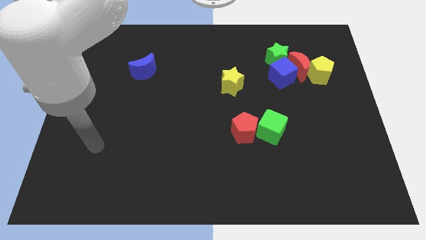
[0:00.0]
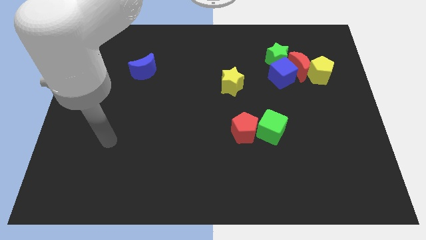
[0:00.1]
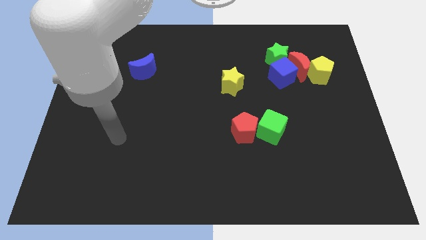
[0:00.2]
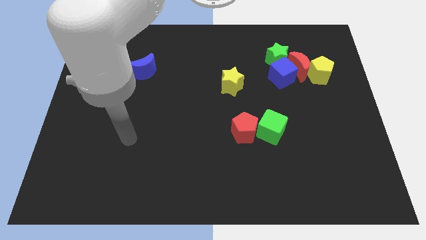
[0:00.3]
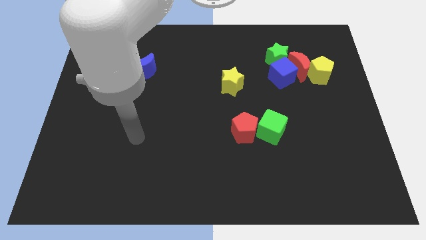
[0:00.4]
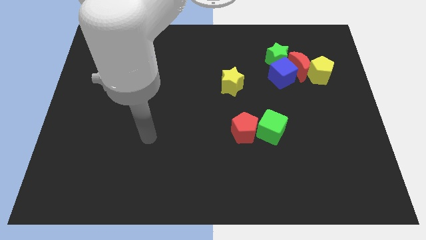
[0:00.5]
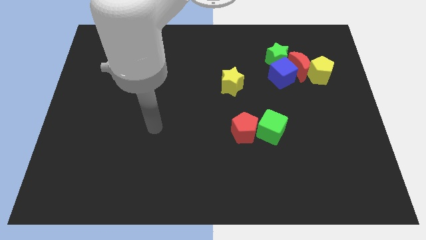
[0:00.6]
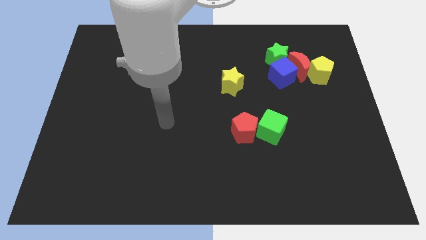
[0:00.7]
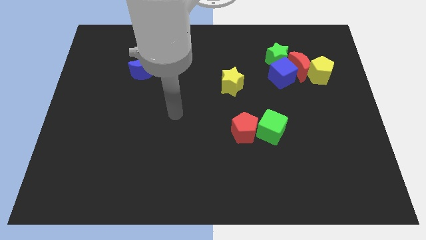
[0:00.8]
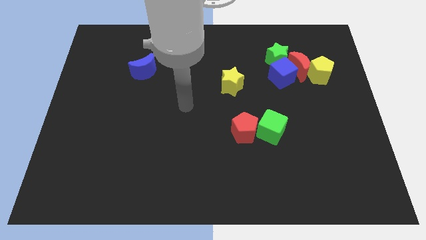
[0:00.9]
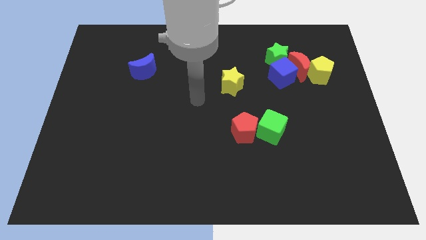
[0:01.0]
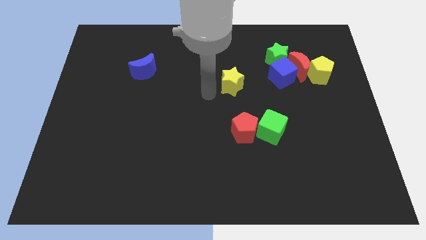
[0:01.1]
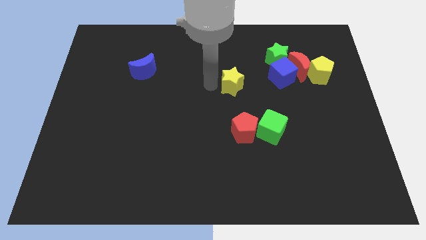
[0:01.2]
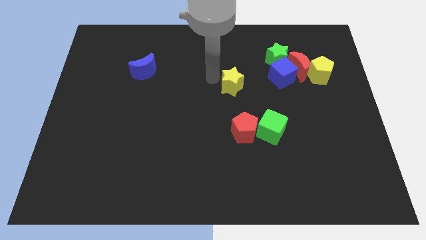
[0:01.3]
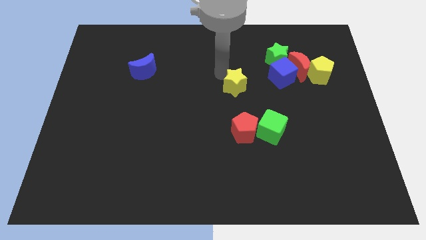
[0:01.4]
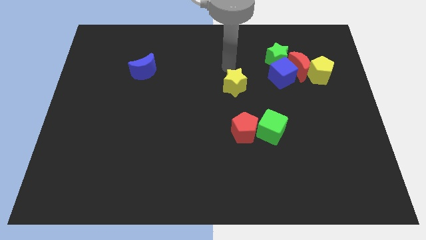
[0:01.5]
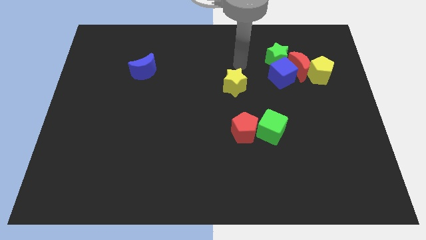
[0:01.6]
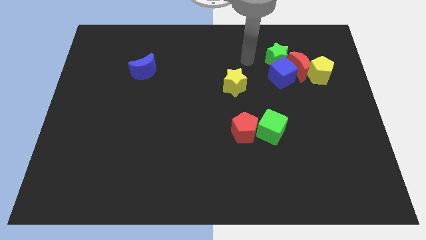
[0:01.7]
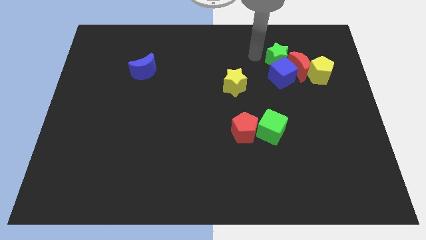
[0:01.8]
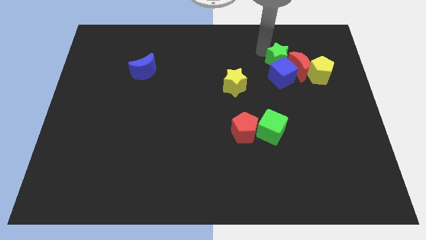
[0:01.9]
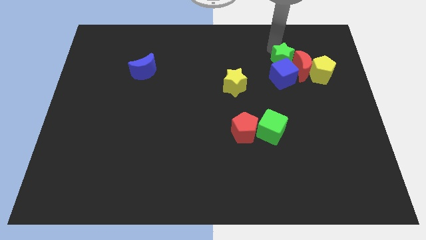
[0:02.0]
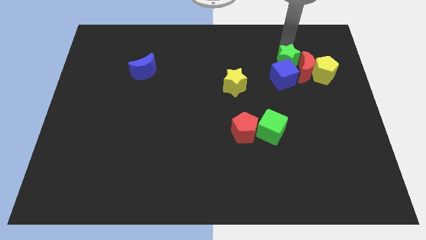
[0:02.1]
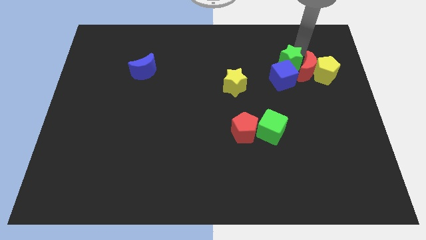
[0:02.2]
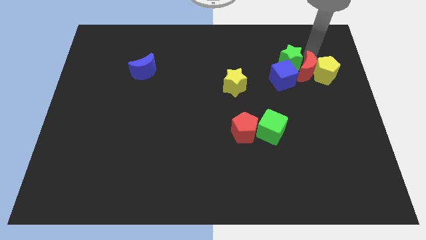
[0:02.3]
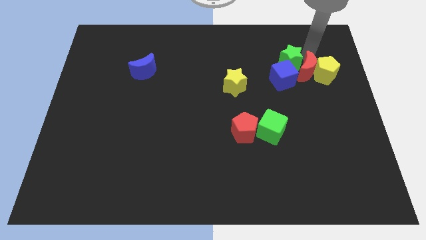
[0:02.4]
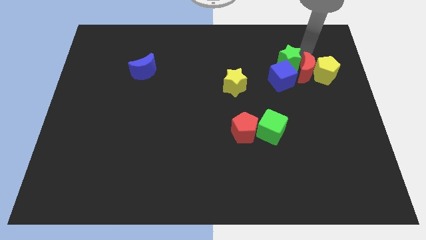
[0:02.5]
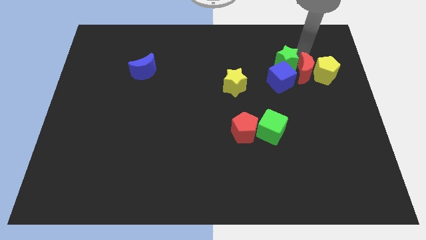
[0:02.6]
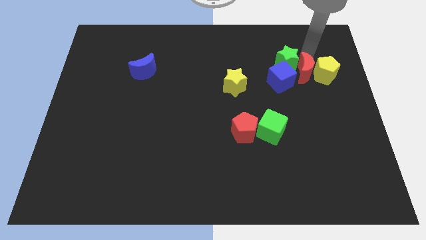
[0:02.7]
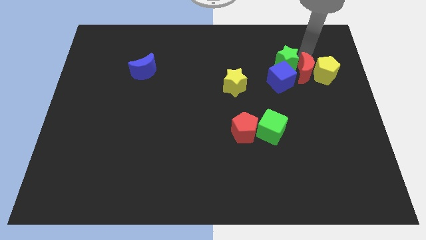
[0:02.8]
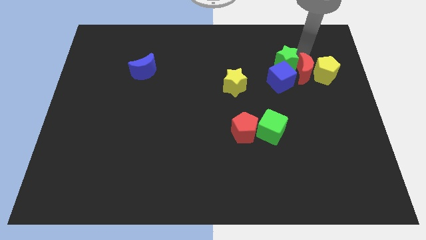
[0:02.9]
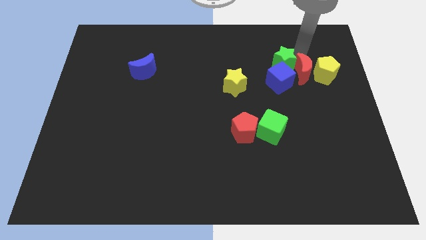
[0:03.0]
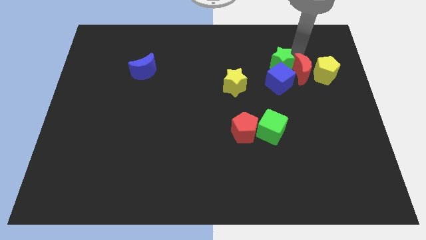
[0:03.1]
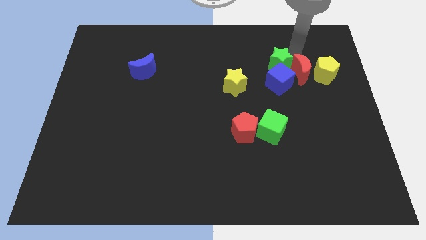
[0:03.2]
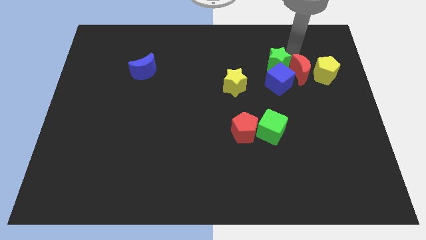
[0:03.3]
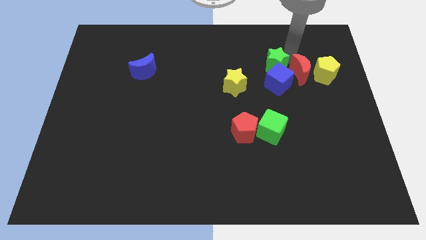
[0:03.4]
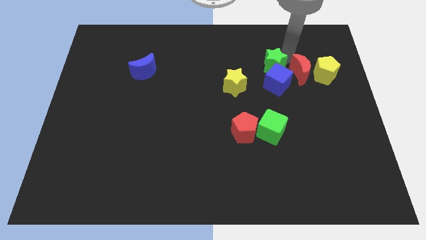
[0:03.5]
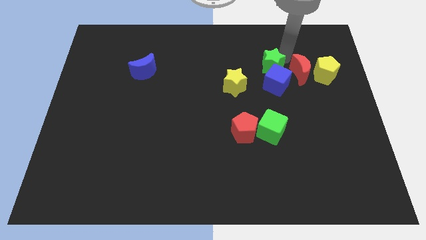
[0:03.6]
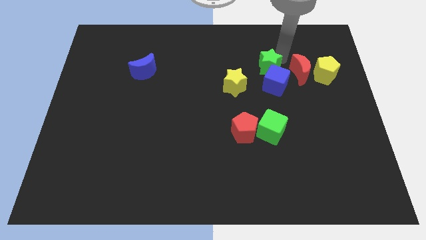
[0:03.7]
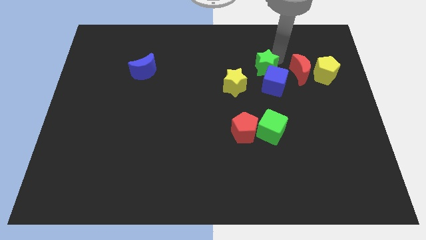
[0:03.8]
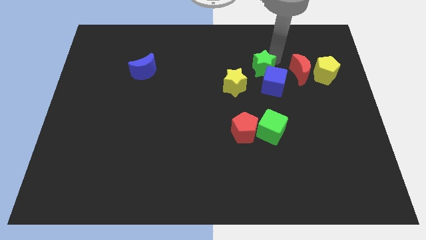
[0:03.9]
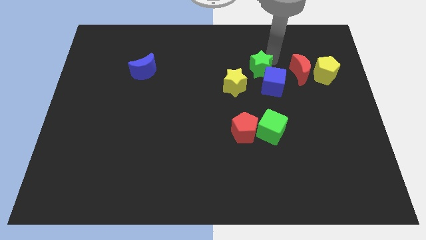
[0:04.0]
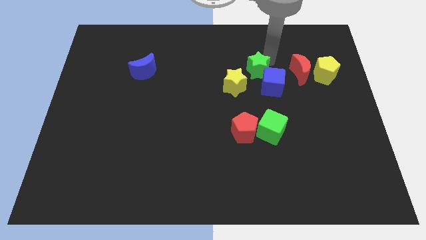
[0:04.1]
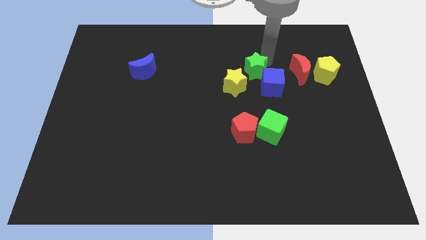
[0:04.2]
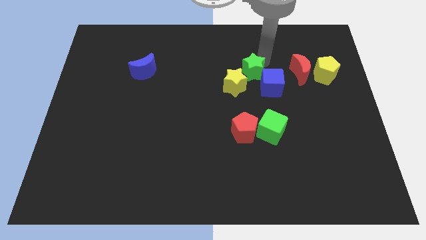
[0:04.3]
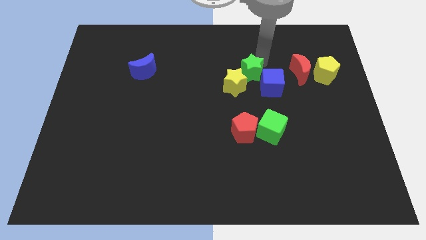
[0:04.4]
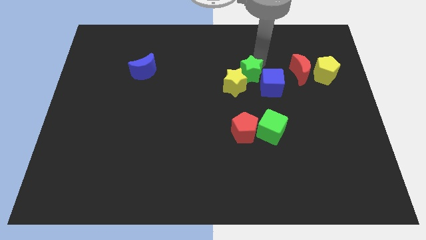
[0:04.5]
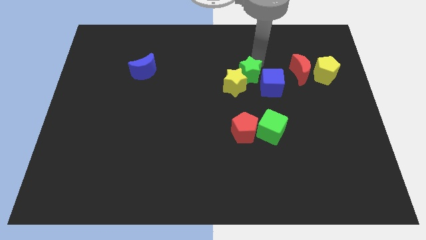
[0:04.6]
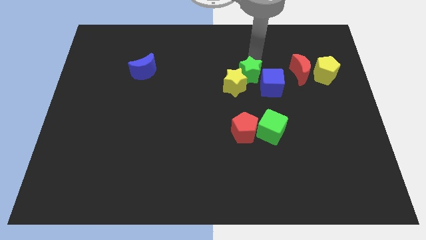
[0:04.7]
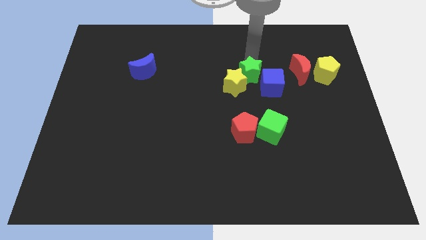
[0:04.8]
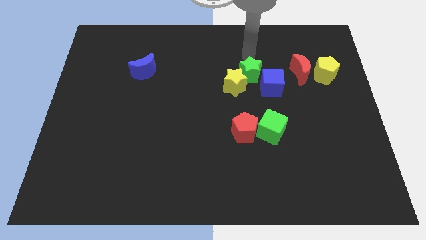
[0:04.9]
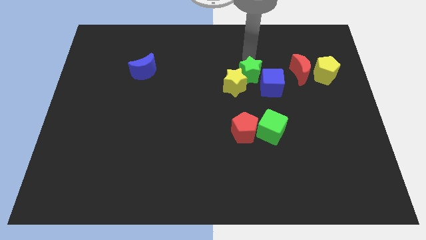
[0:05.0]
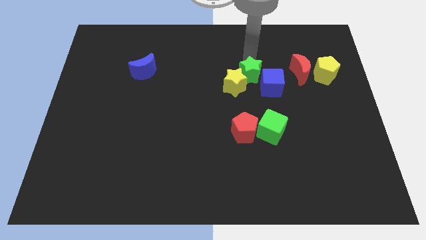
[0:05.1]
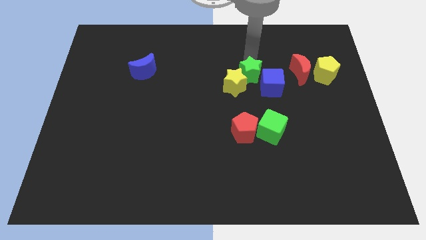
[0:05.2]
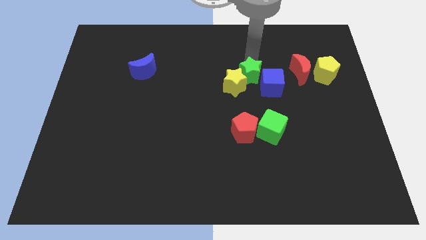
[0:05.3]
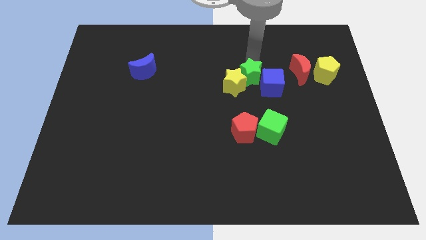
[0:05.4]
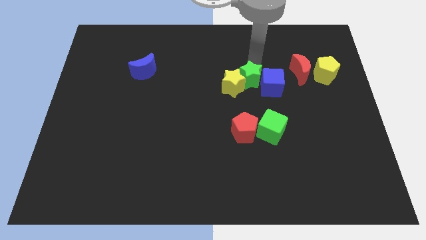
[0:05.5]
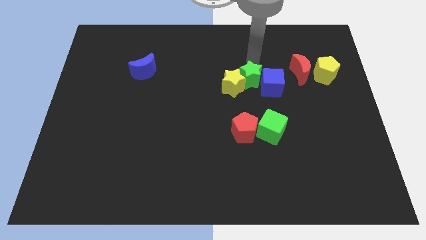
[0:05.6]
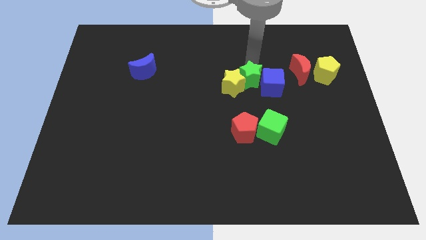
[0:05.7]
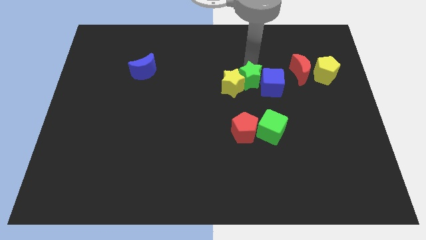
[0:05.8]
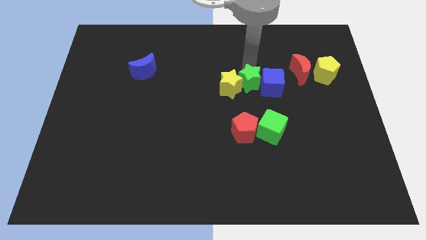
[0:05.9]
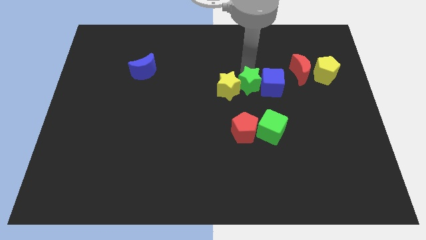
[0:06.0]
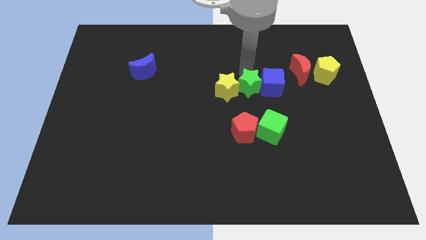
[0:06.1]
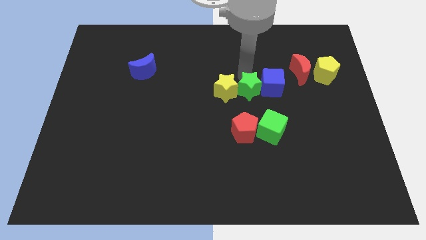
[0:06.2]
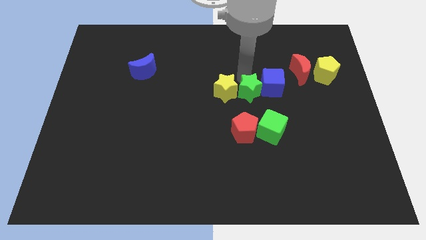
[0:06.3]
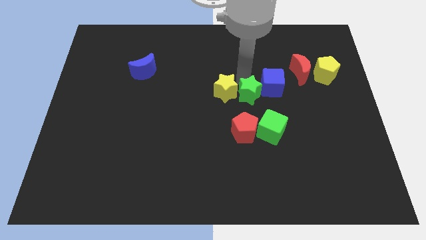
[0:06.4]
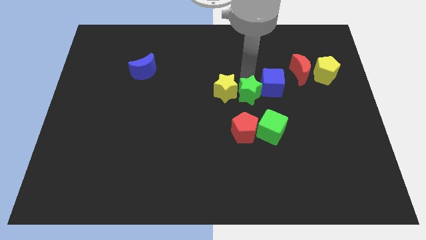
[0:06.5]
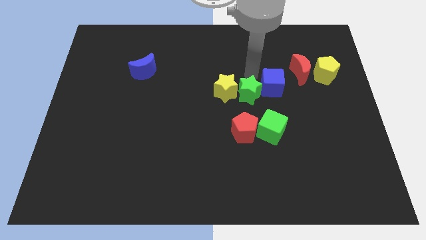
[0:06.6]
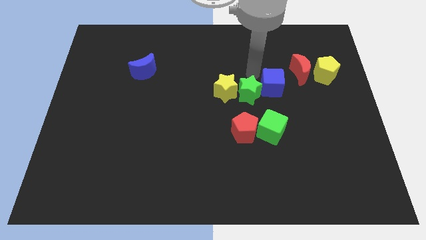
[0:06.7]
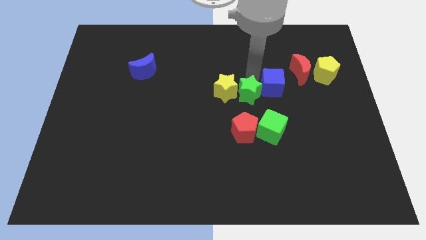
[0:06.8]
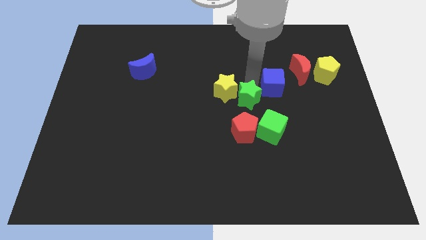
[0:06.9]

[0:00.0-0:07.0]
move the green star to the top left side of the green cube
